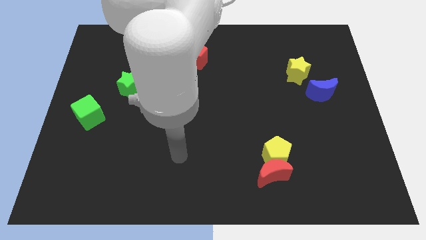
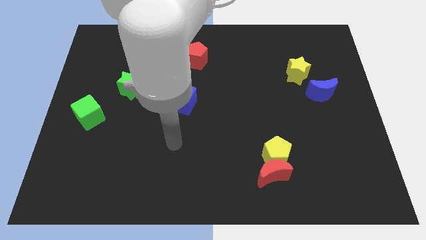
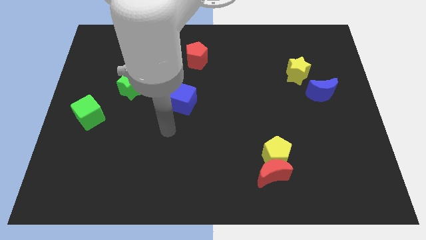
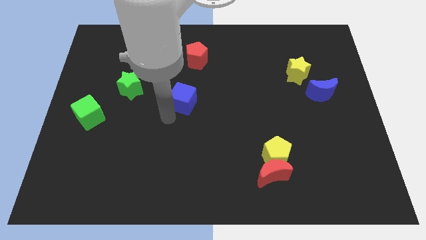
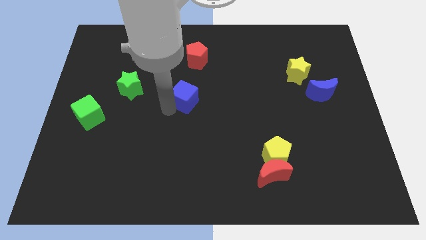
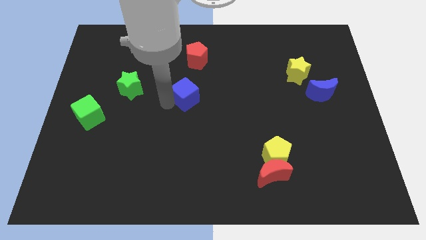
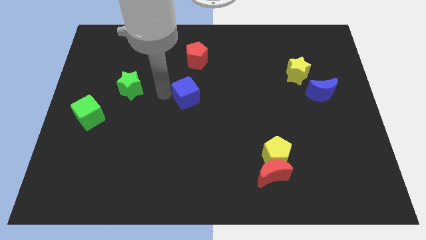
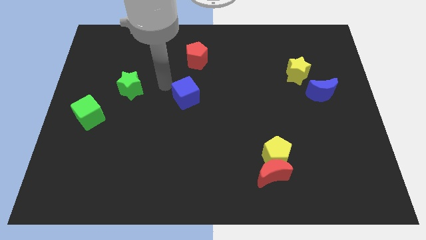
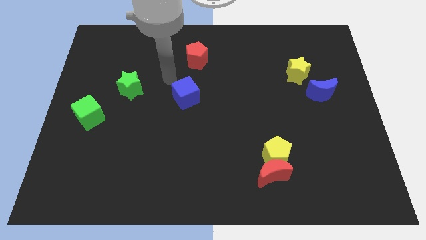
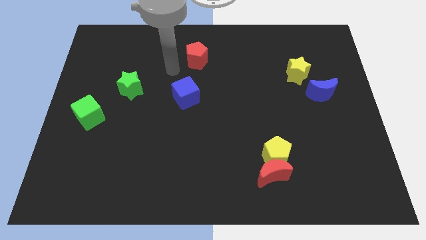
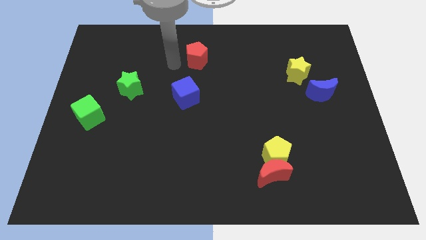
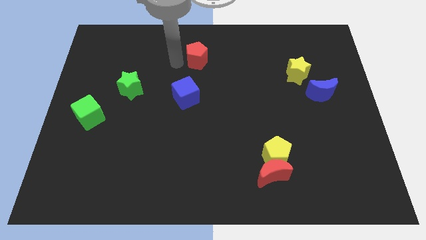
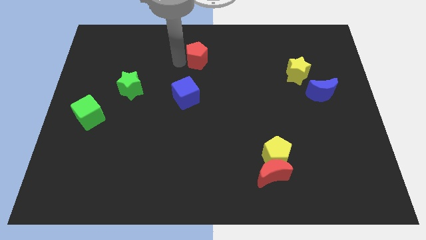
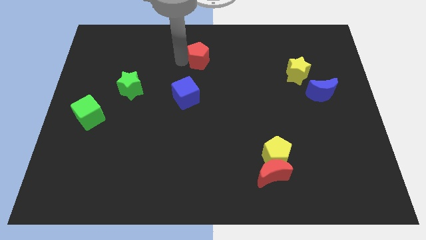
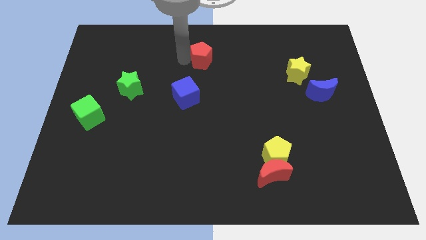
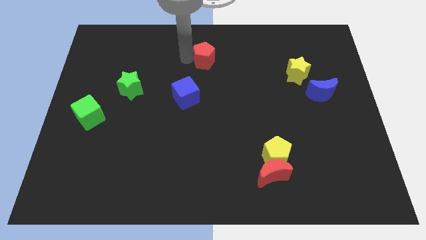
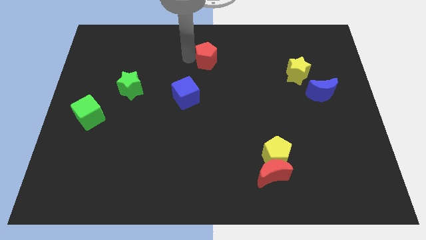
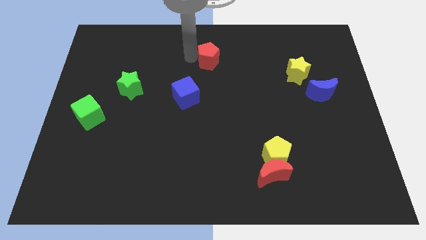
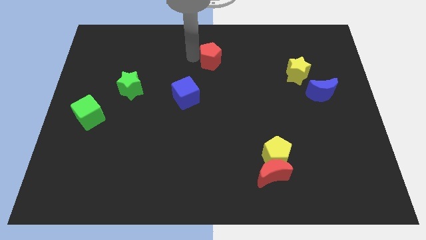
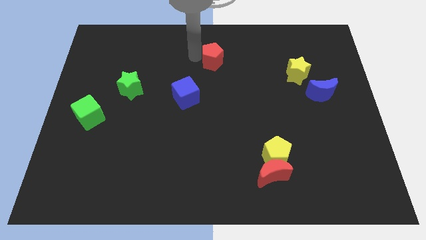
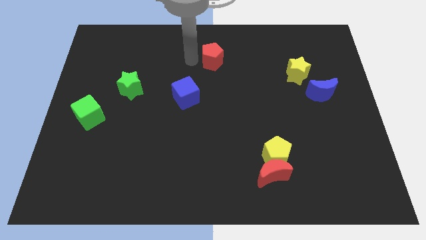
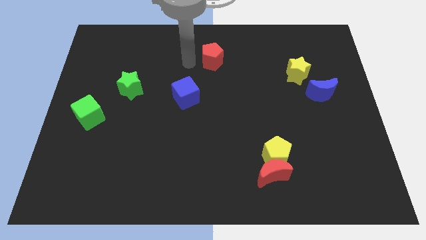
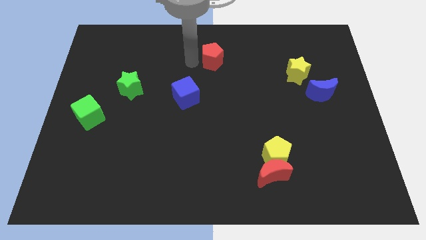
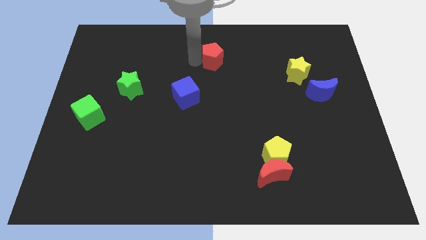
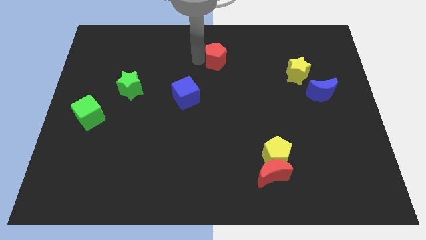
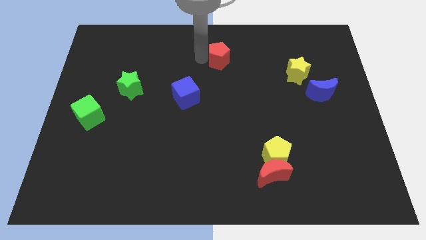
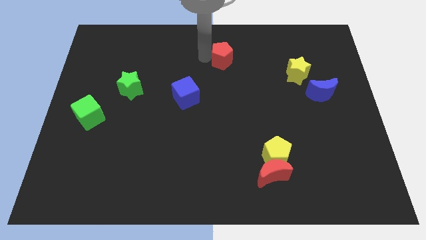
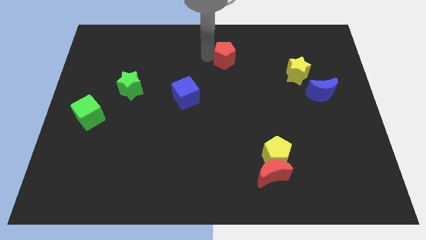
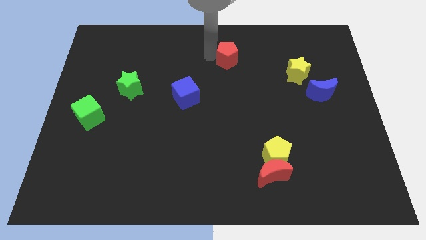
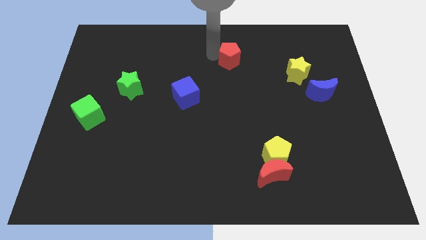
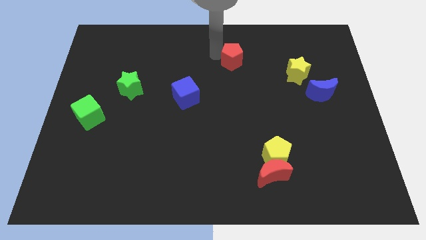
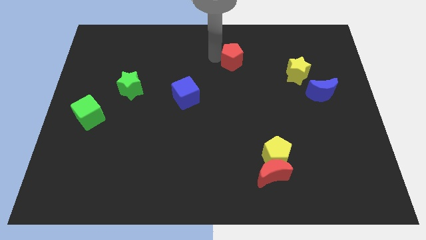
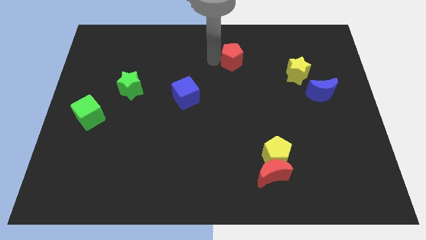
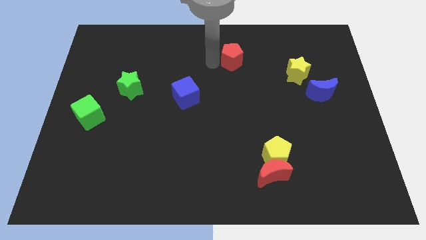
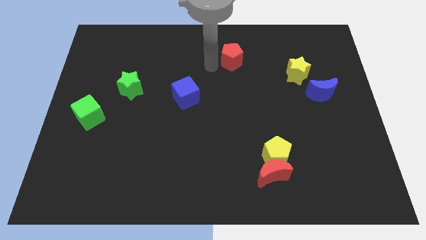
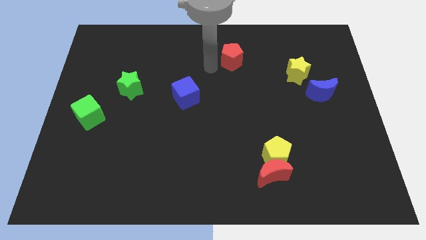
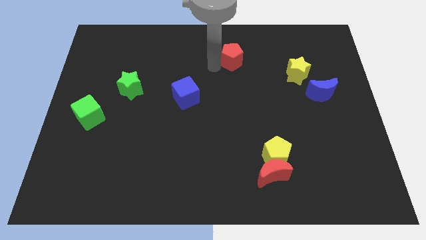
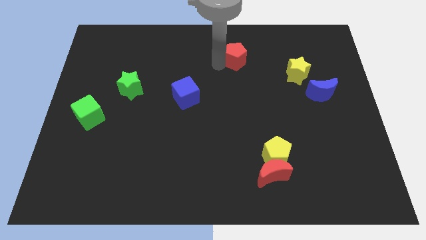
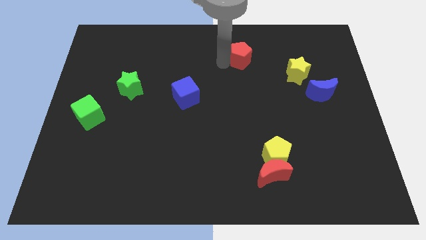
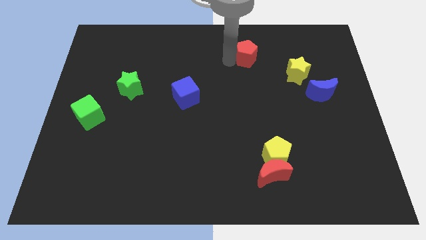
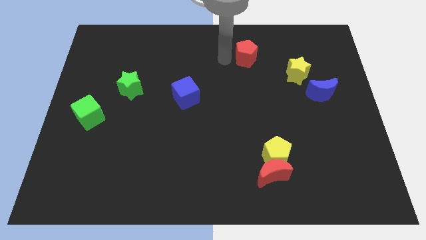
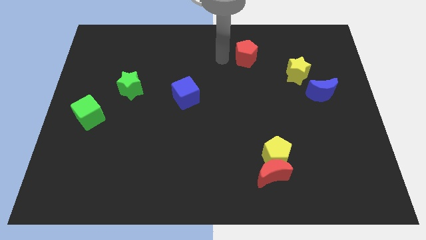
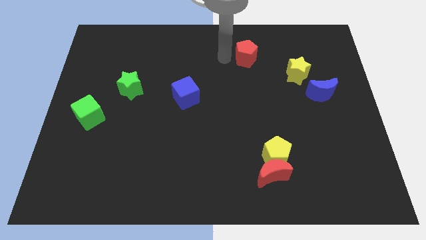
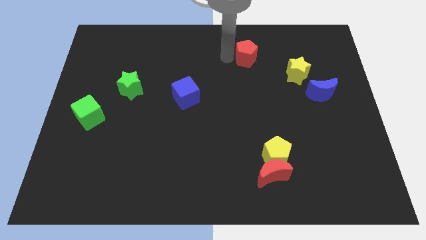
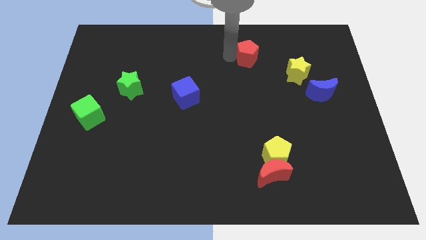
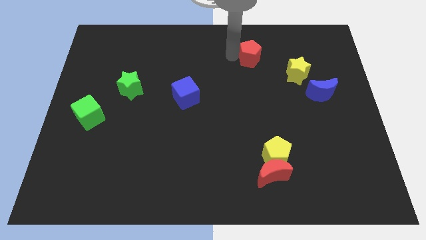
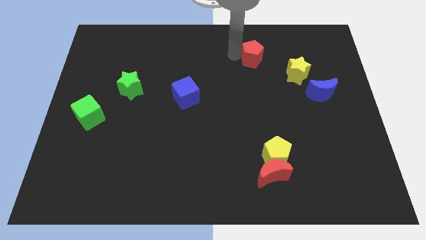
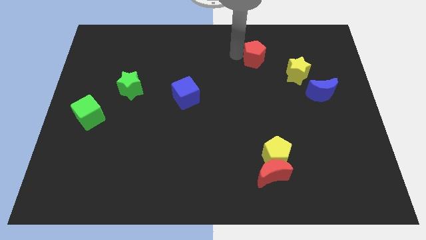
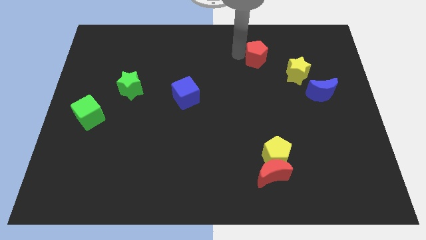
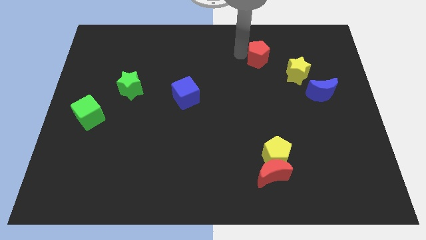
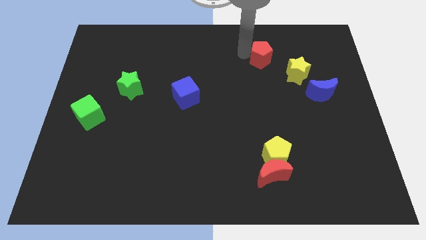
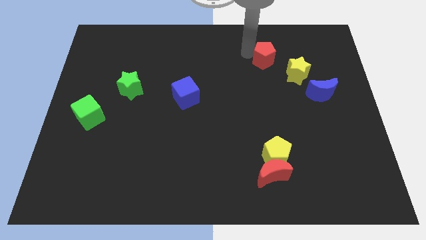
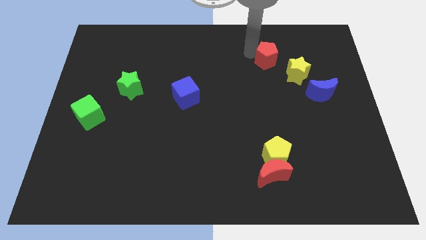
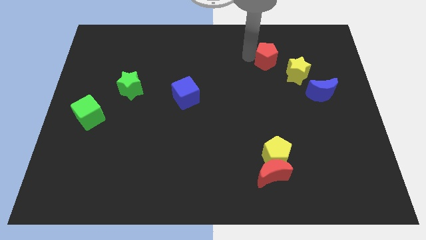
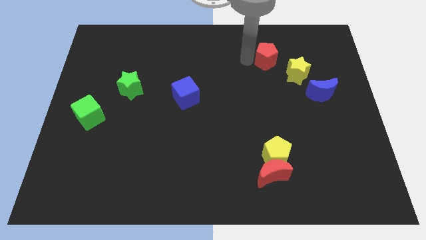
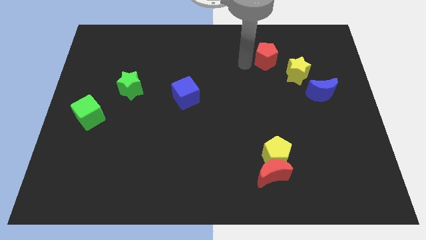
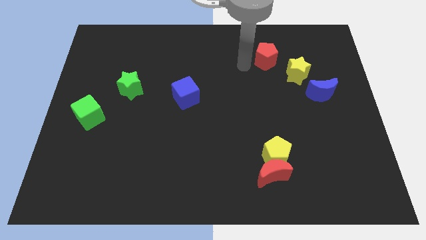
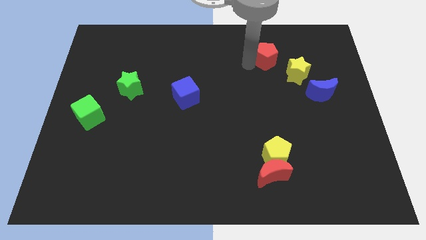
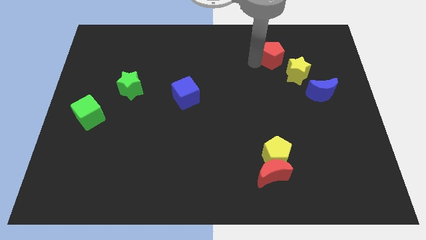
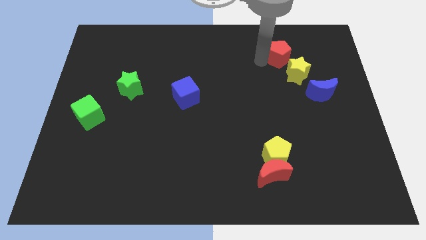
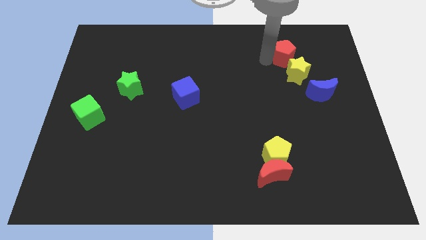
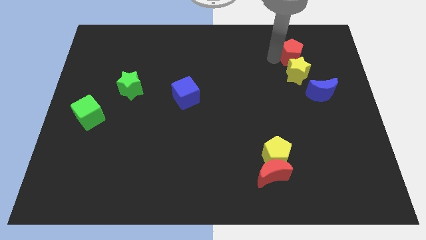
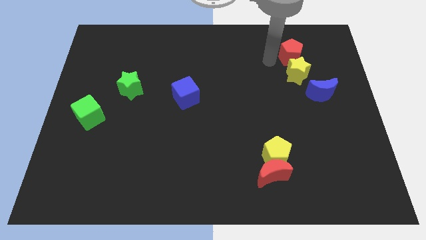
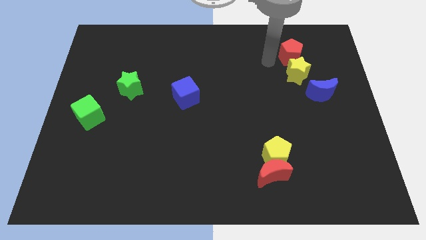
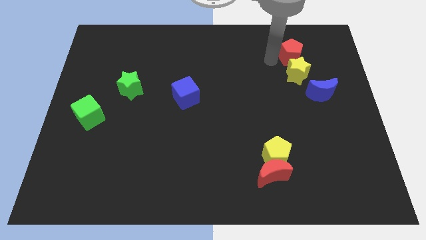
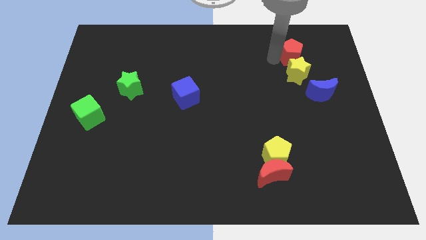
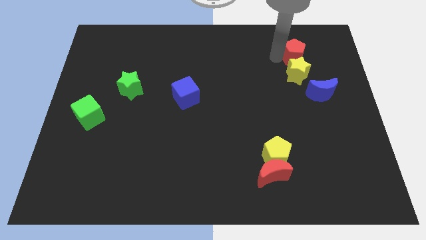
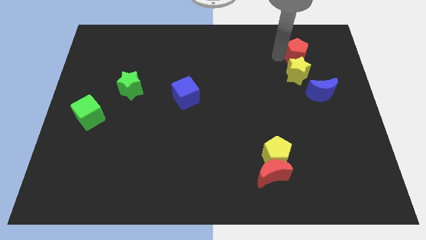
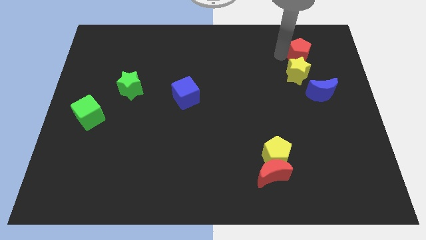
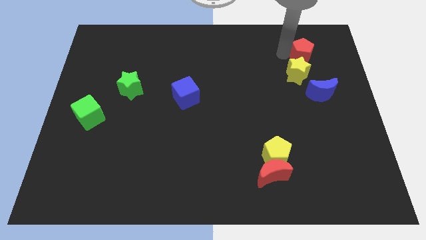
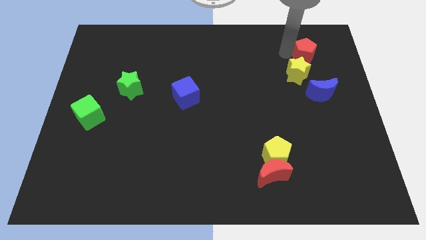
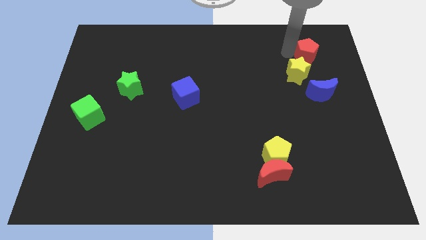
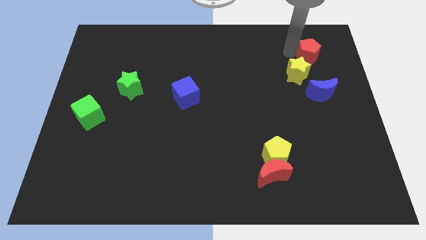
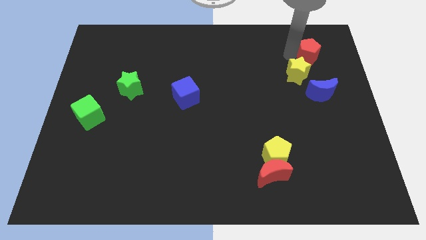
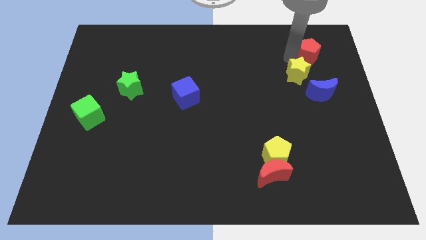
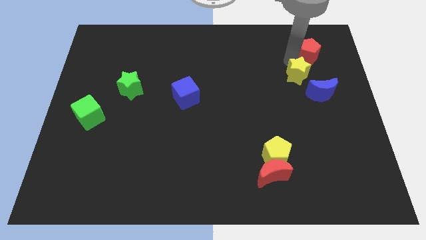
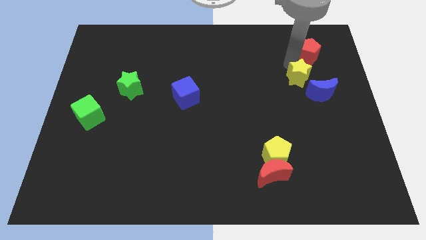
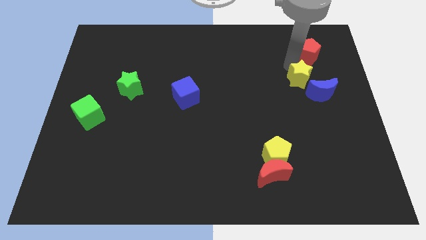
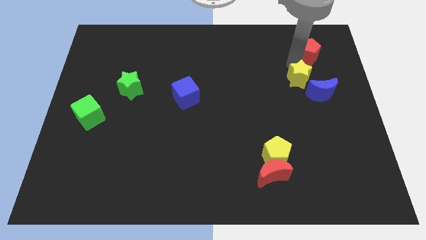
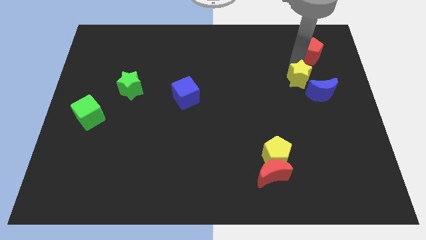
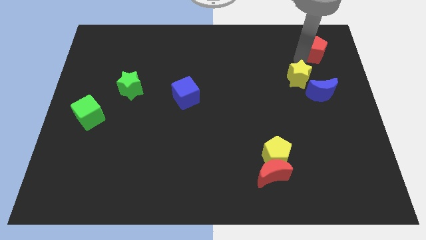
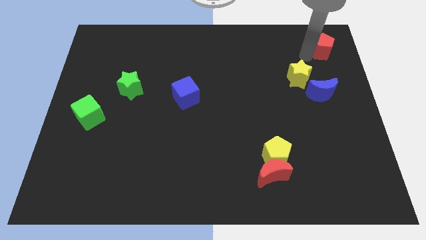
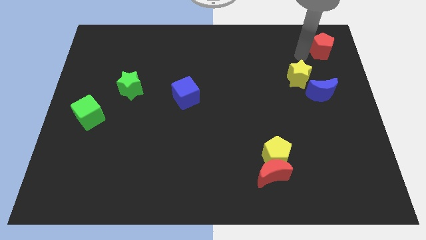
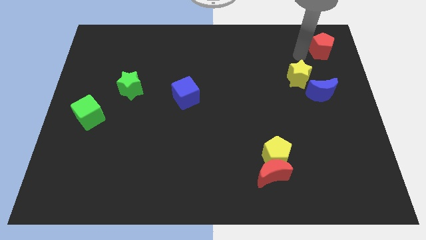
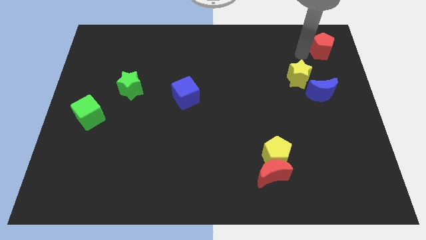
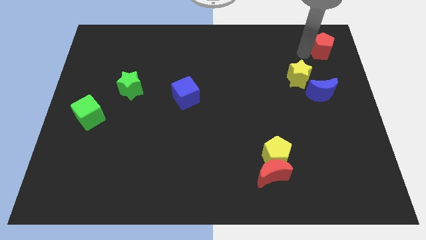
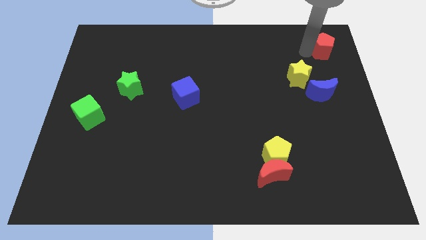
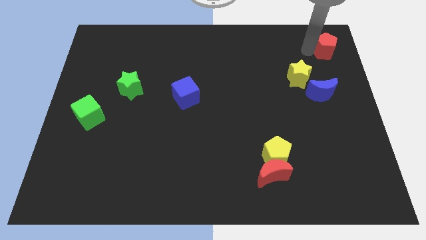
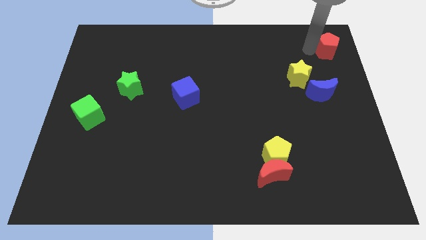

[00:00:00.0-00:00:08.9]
move the red pentagon to the upper right corner
